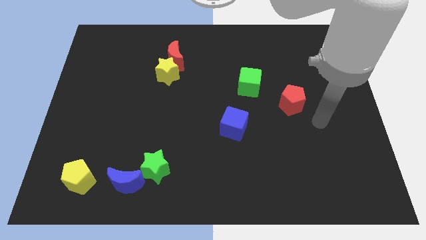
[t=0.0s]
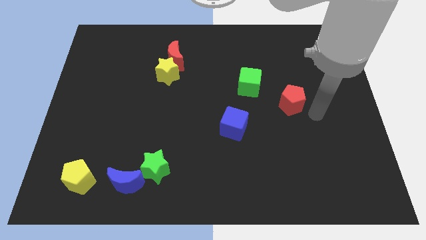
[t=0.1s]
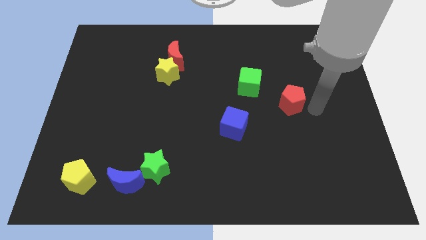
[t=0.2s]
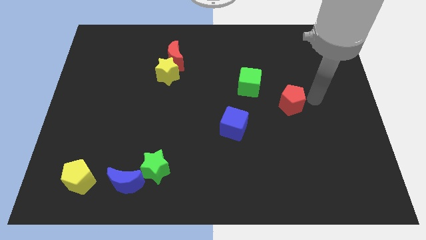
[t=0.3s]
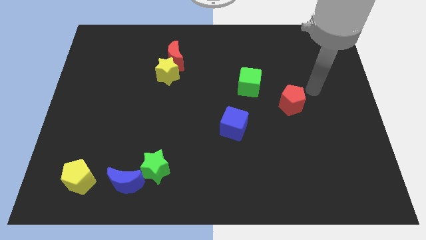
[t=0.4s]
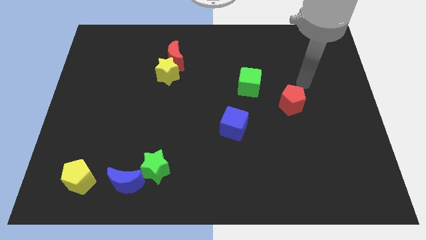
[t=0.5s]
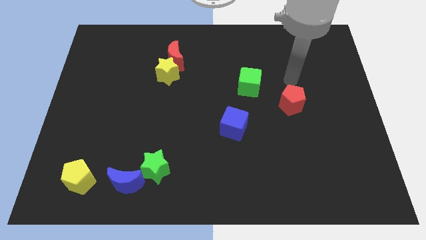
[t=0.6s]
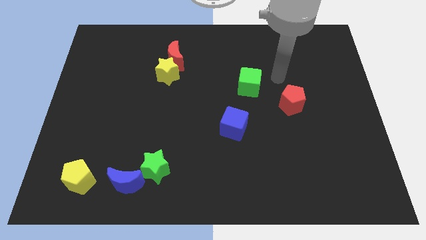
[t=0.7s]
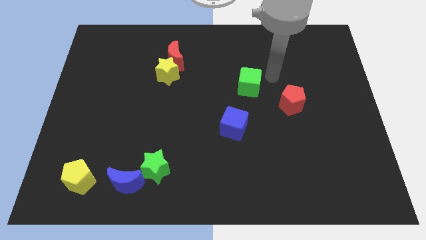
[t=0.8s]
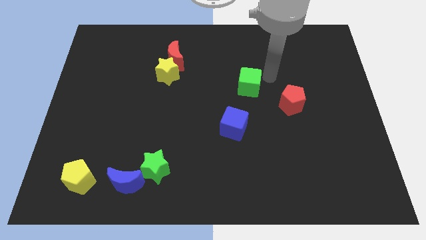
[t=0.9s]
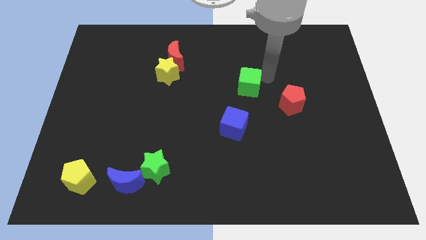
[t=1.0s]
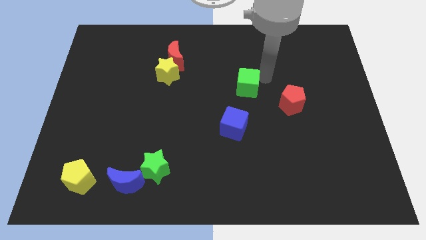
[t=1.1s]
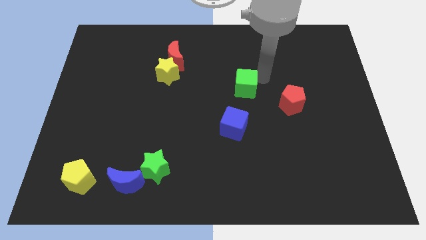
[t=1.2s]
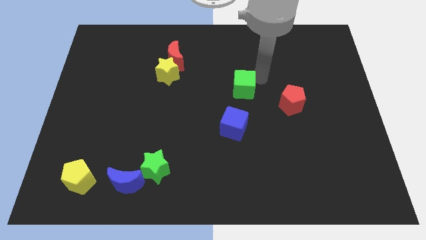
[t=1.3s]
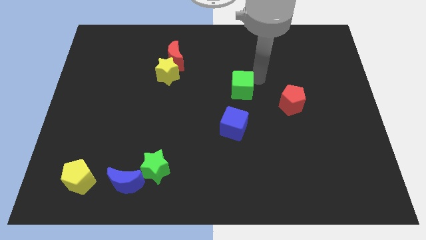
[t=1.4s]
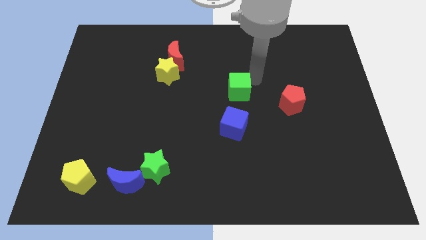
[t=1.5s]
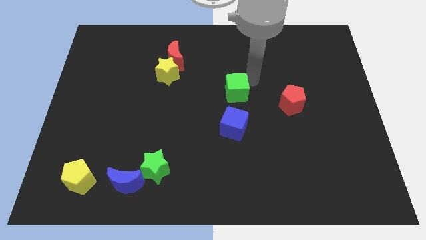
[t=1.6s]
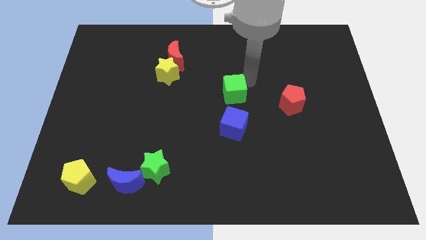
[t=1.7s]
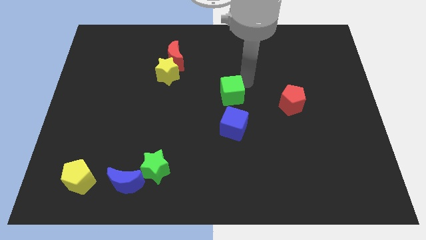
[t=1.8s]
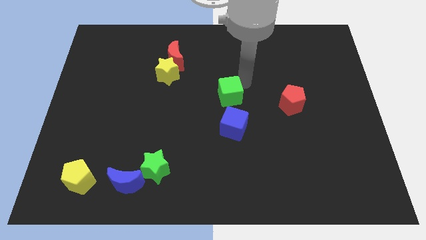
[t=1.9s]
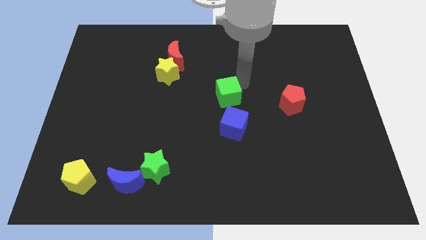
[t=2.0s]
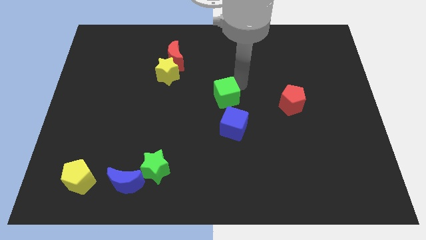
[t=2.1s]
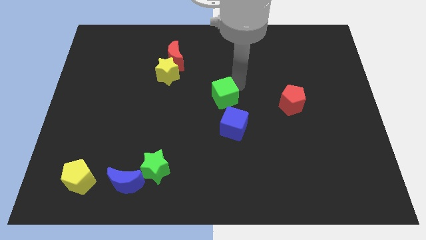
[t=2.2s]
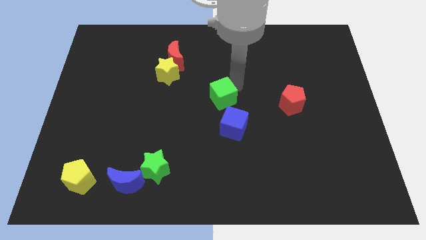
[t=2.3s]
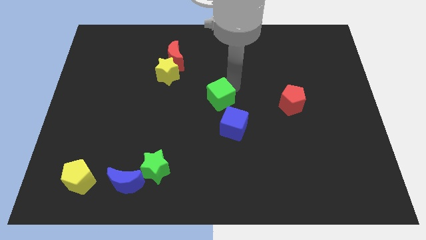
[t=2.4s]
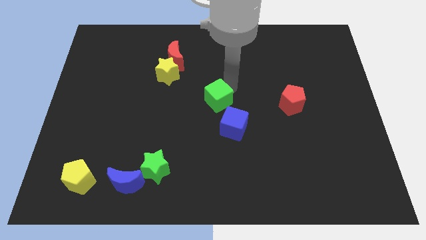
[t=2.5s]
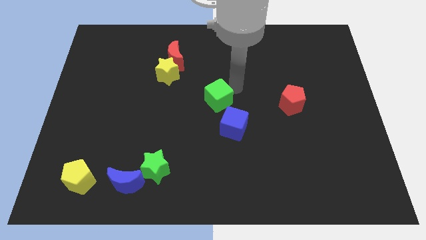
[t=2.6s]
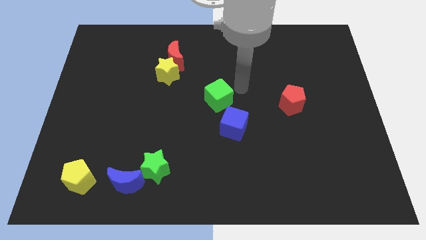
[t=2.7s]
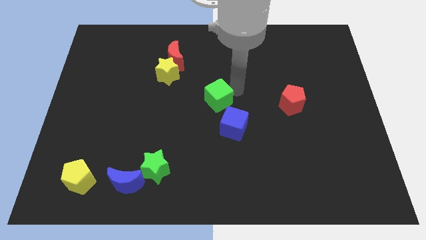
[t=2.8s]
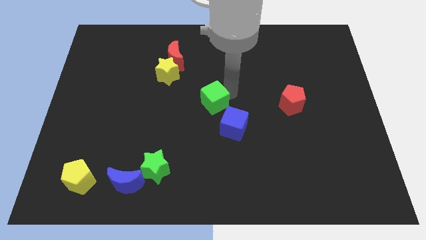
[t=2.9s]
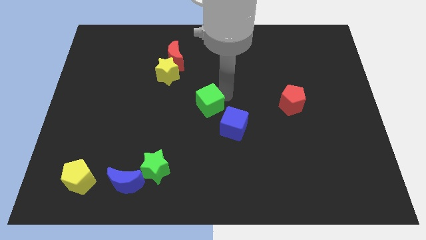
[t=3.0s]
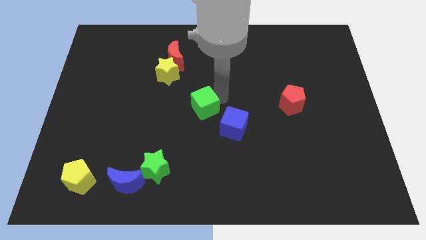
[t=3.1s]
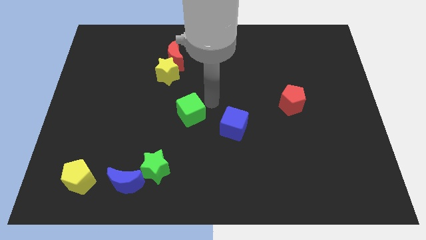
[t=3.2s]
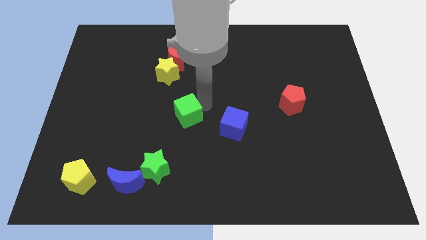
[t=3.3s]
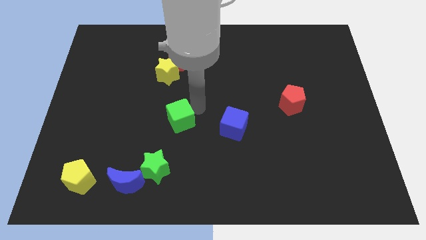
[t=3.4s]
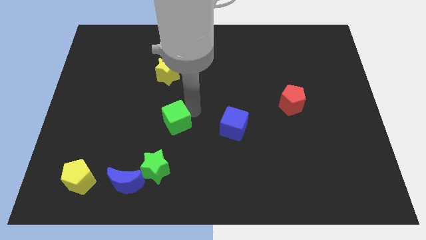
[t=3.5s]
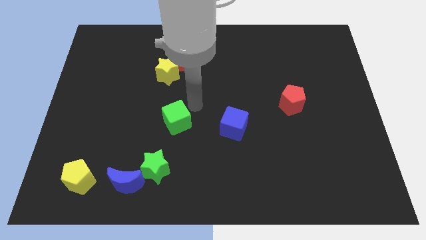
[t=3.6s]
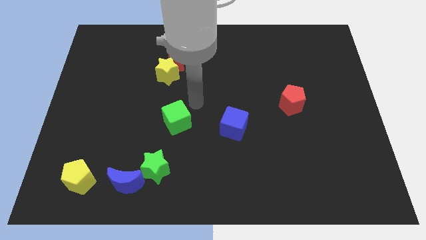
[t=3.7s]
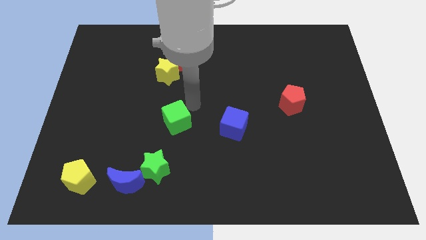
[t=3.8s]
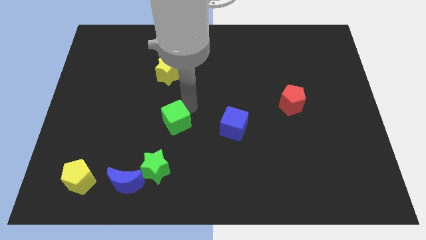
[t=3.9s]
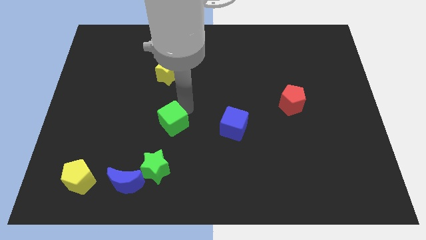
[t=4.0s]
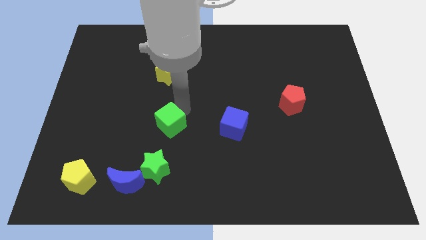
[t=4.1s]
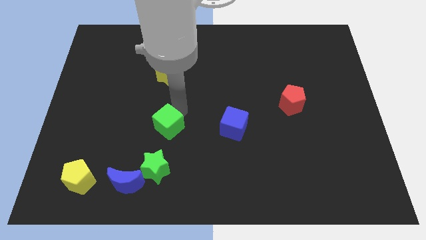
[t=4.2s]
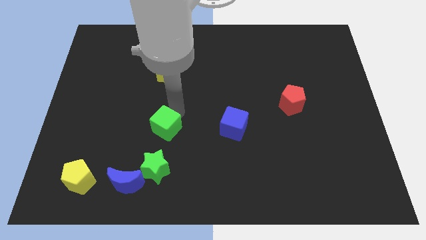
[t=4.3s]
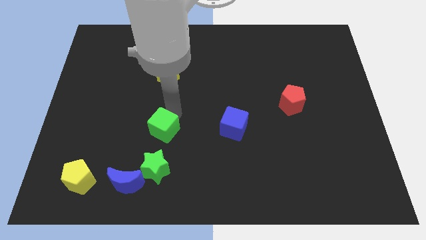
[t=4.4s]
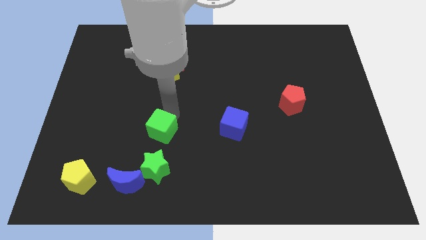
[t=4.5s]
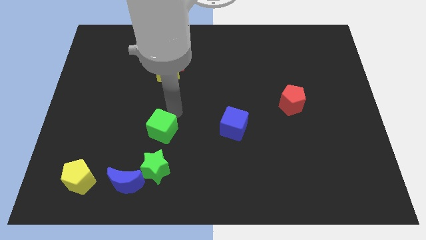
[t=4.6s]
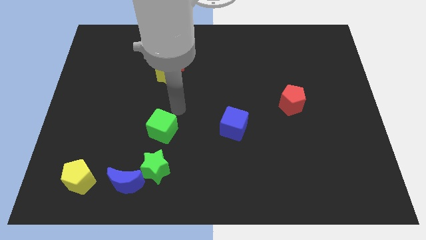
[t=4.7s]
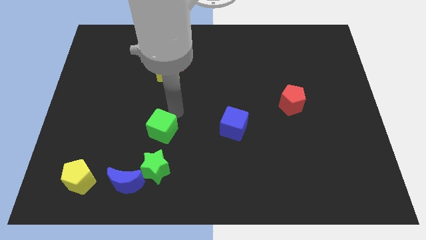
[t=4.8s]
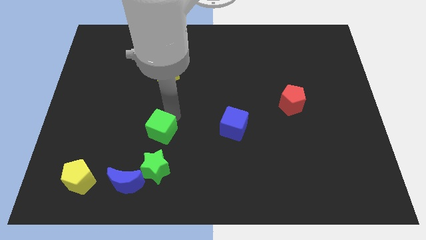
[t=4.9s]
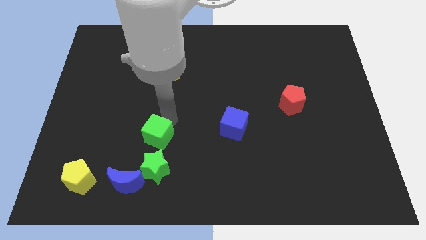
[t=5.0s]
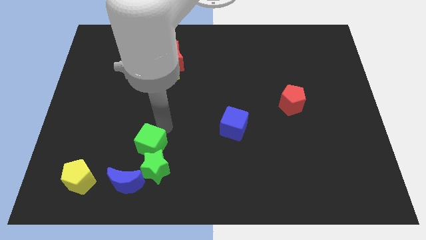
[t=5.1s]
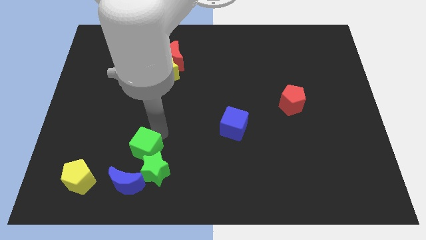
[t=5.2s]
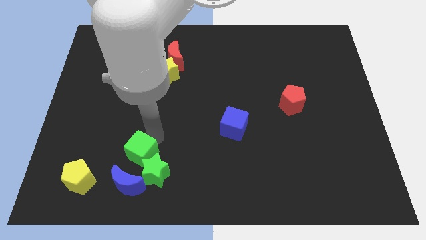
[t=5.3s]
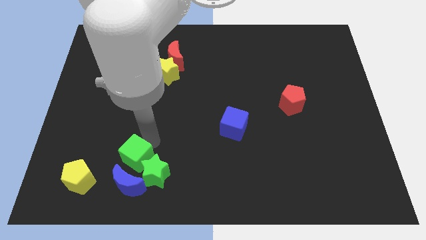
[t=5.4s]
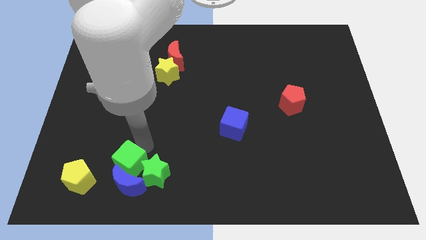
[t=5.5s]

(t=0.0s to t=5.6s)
slide the green cube next to the blue moon

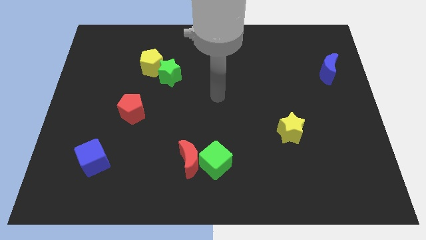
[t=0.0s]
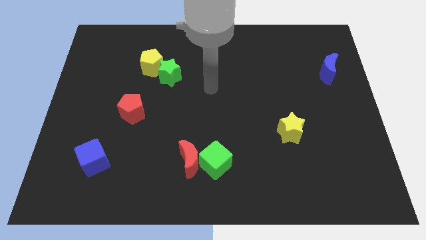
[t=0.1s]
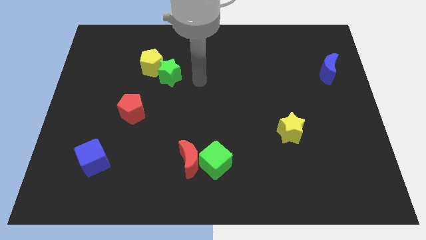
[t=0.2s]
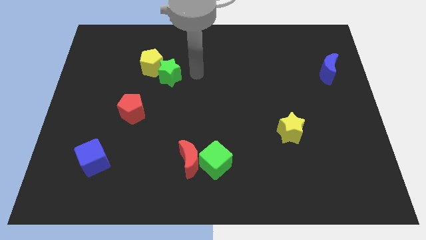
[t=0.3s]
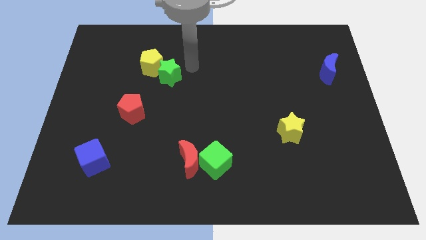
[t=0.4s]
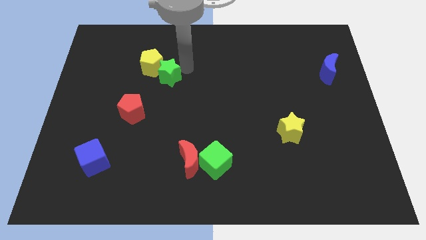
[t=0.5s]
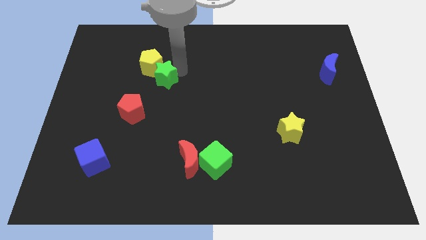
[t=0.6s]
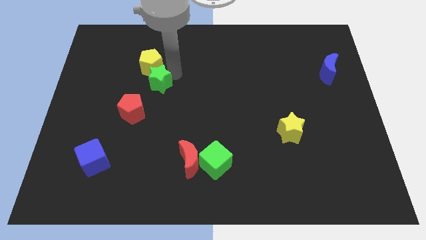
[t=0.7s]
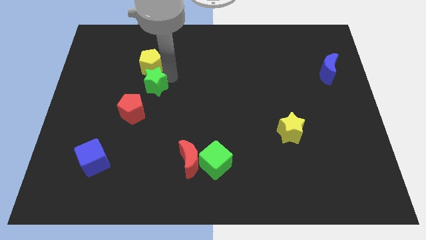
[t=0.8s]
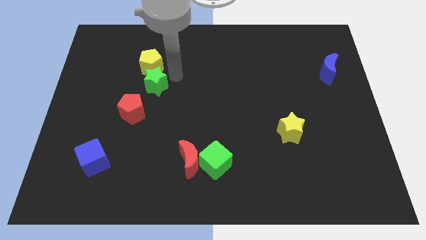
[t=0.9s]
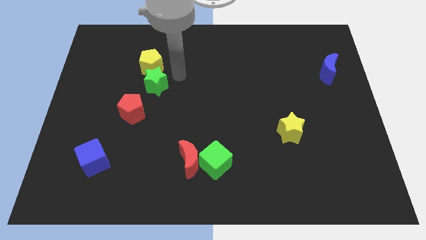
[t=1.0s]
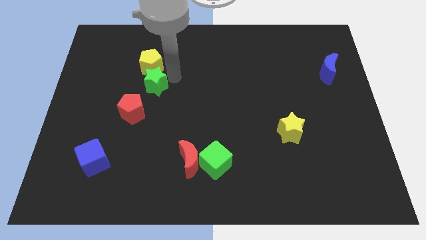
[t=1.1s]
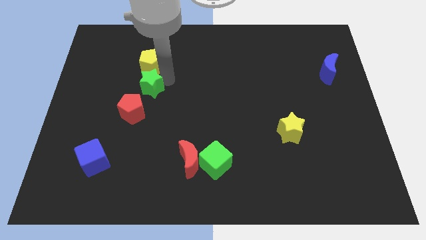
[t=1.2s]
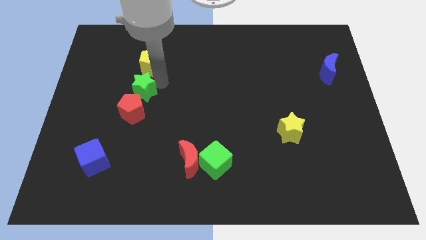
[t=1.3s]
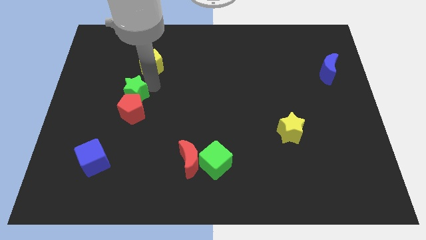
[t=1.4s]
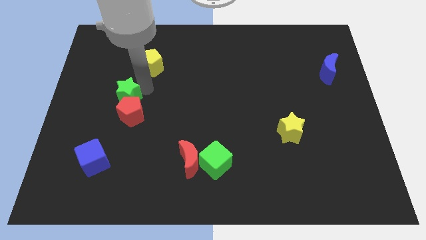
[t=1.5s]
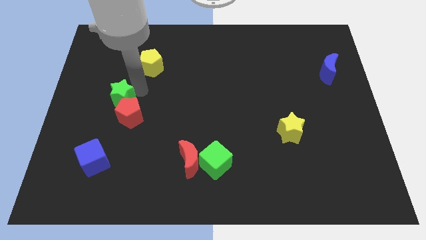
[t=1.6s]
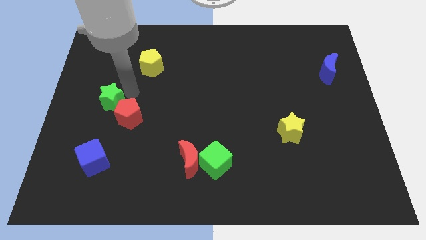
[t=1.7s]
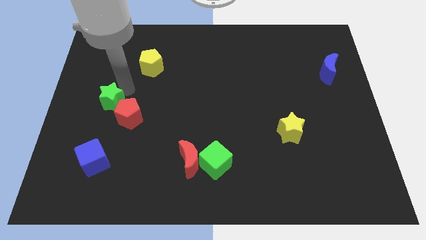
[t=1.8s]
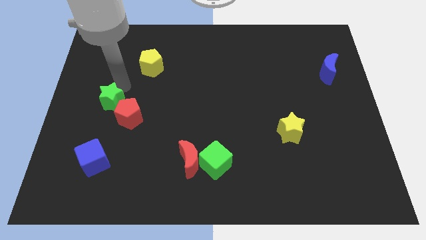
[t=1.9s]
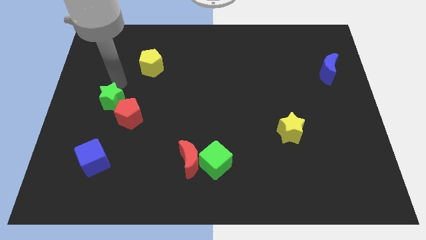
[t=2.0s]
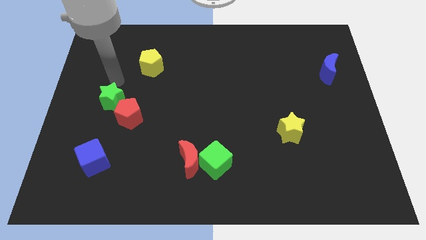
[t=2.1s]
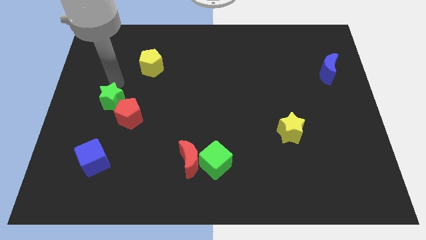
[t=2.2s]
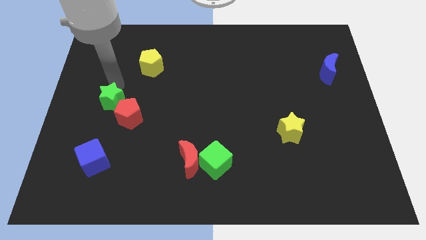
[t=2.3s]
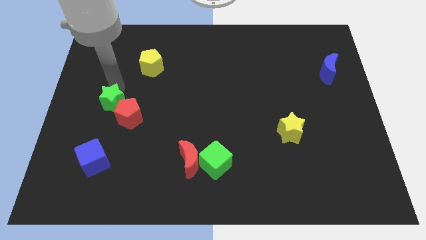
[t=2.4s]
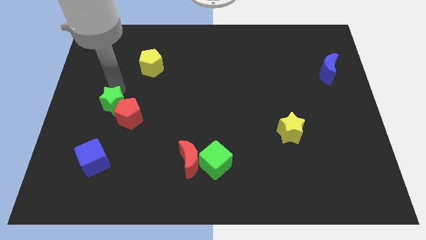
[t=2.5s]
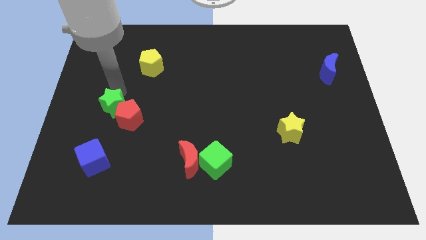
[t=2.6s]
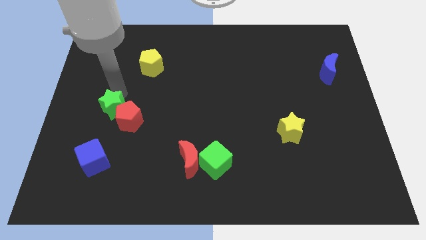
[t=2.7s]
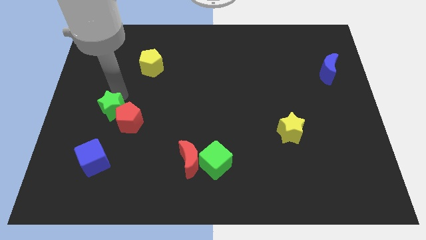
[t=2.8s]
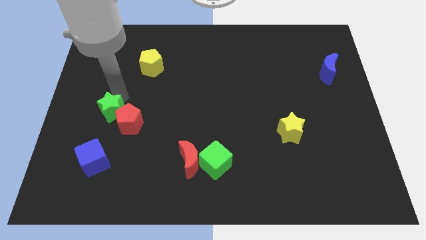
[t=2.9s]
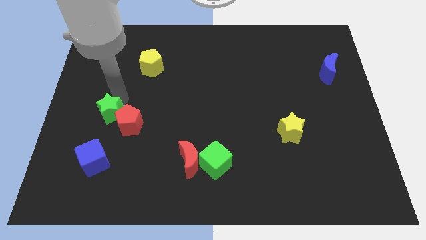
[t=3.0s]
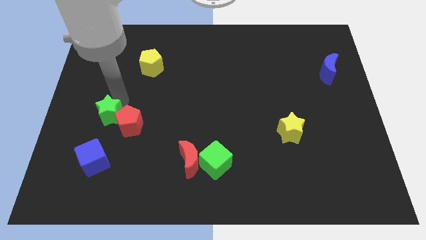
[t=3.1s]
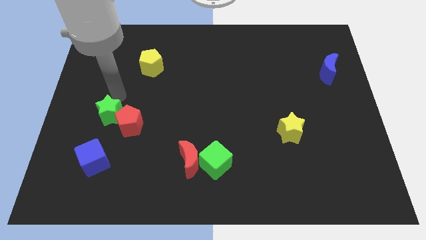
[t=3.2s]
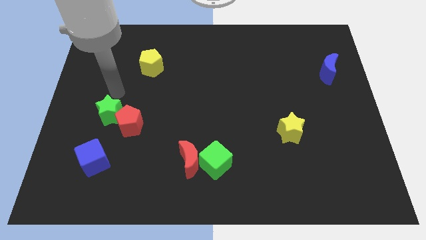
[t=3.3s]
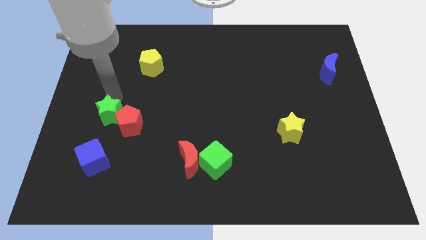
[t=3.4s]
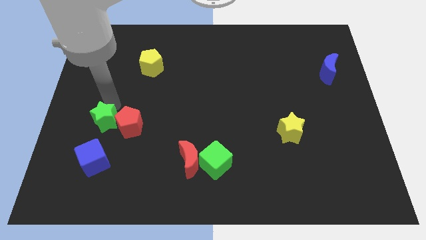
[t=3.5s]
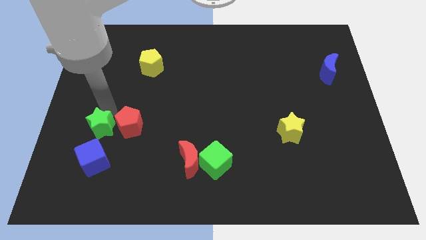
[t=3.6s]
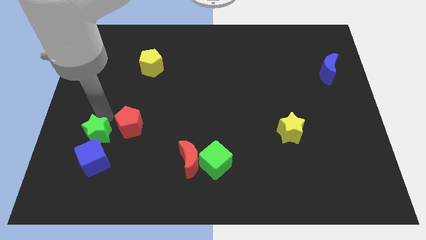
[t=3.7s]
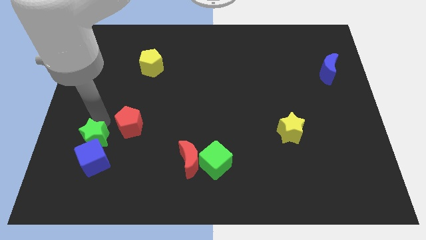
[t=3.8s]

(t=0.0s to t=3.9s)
slide the green star towards the blue cube
